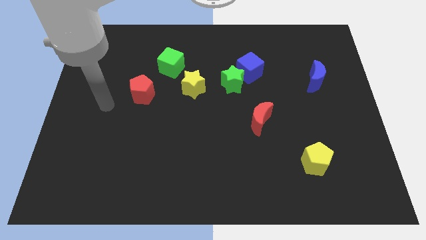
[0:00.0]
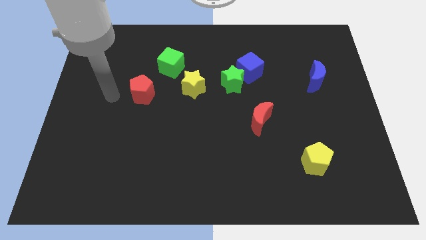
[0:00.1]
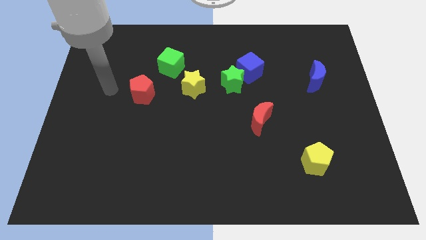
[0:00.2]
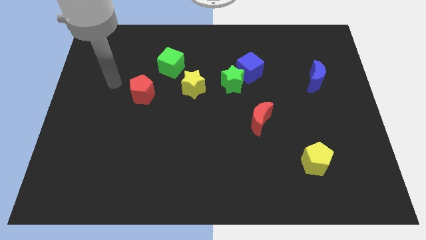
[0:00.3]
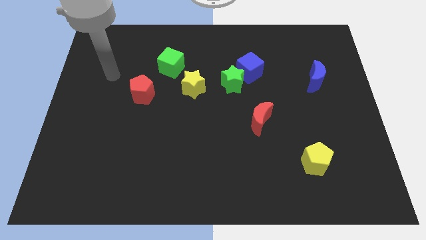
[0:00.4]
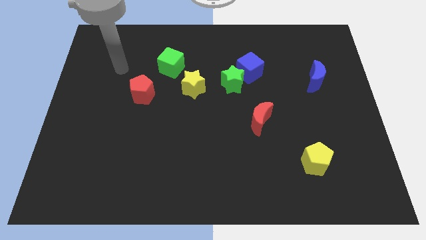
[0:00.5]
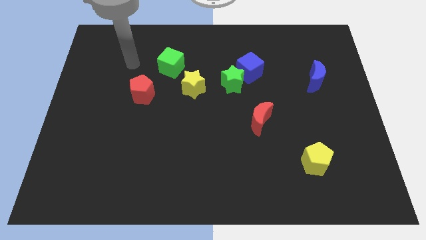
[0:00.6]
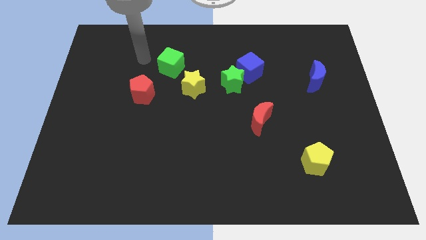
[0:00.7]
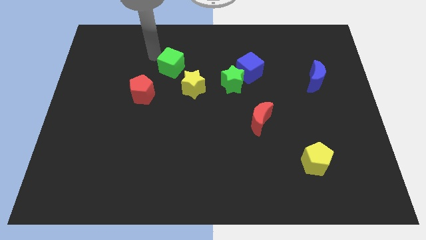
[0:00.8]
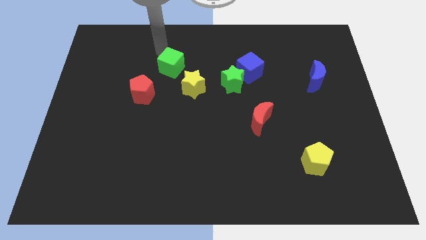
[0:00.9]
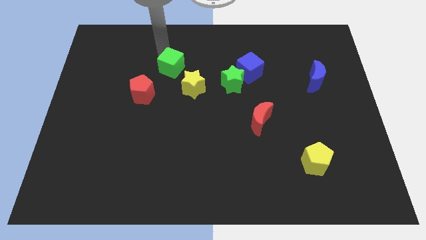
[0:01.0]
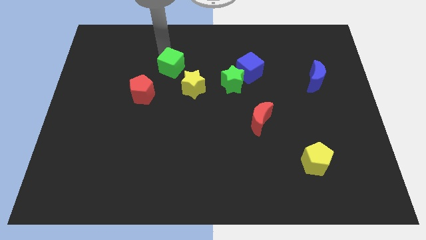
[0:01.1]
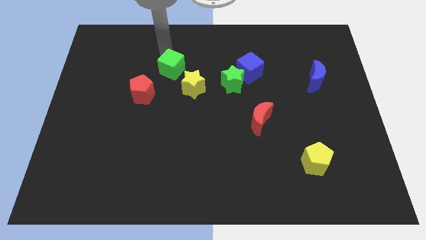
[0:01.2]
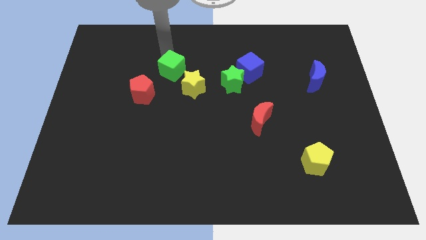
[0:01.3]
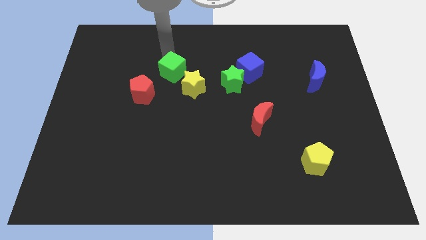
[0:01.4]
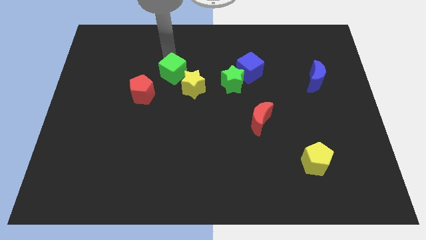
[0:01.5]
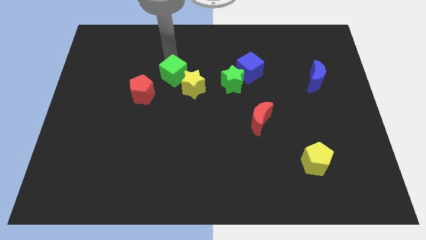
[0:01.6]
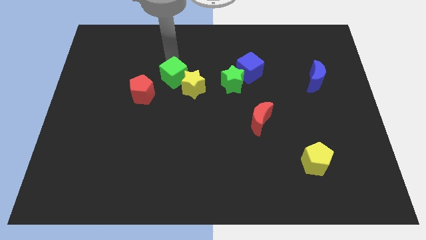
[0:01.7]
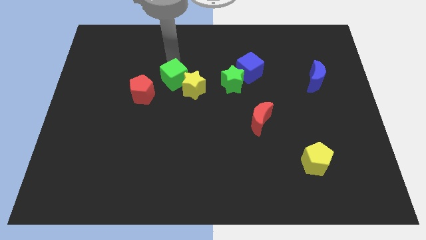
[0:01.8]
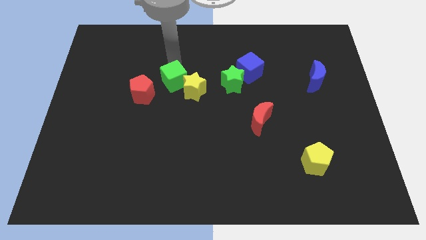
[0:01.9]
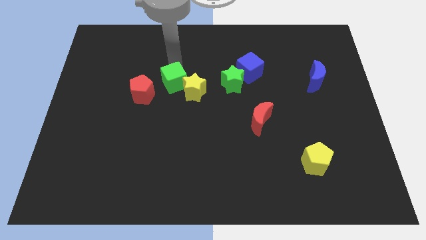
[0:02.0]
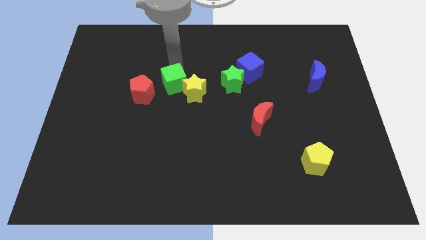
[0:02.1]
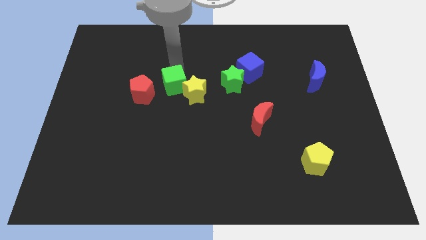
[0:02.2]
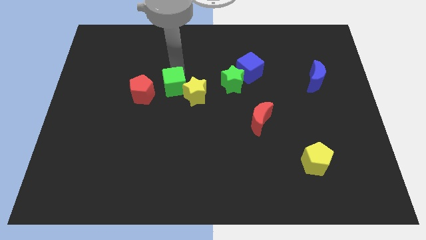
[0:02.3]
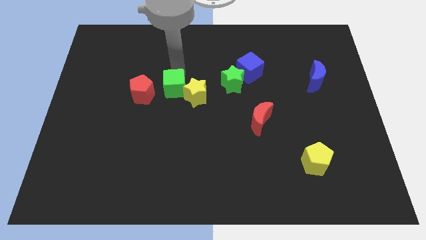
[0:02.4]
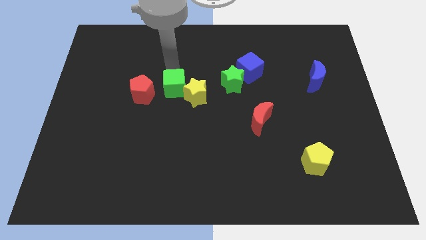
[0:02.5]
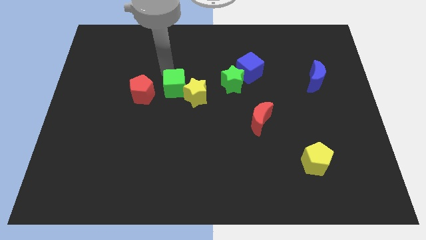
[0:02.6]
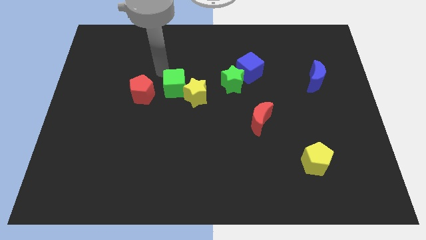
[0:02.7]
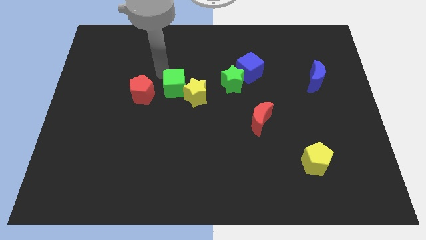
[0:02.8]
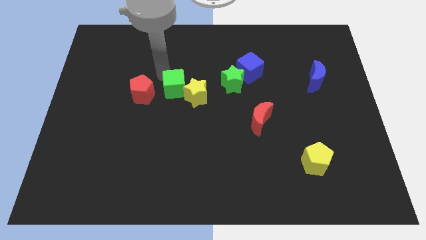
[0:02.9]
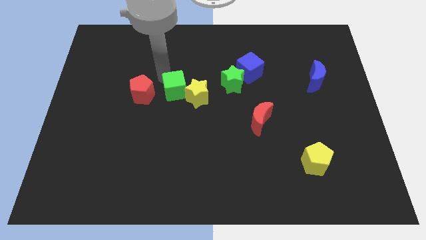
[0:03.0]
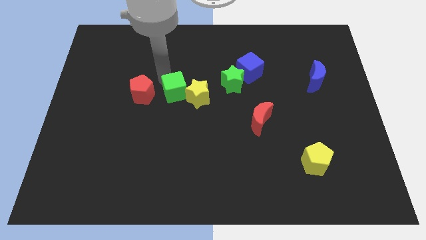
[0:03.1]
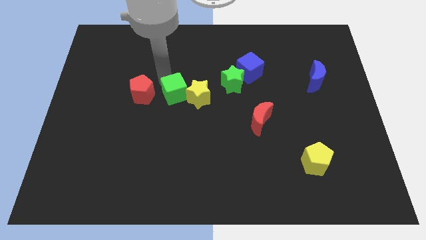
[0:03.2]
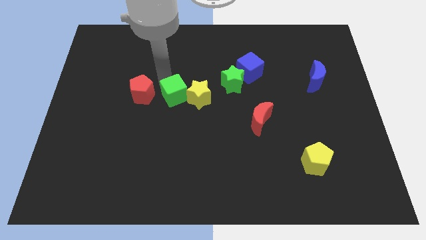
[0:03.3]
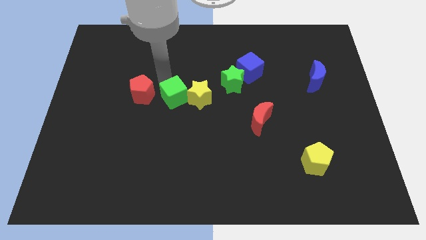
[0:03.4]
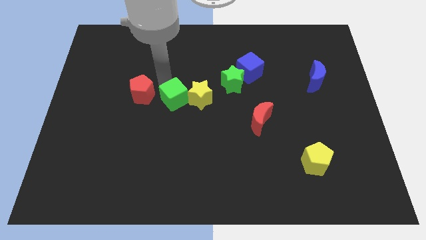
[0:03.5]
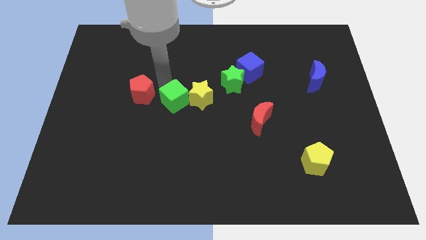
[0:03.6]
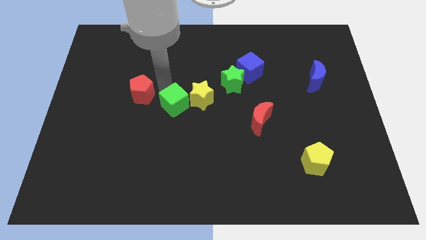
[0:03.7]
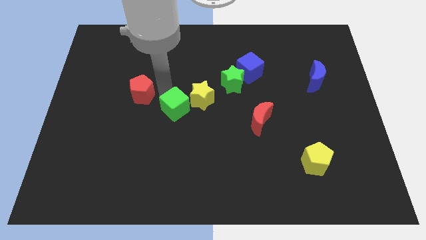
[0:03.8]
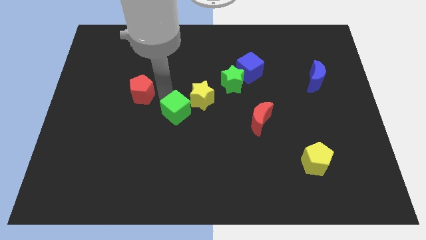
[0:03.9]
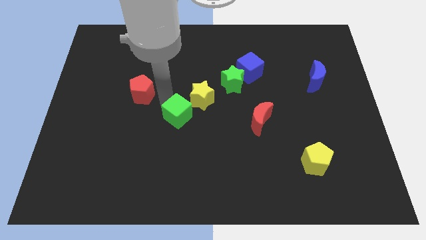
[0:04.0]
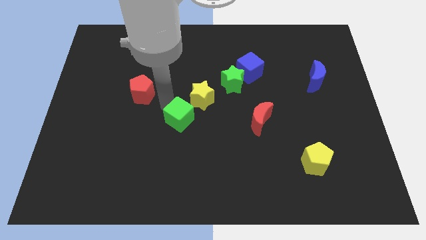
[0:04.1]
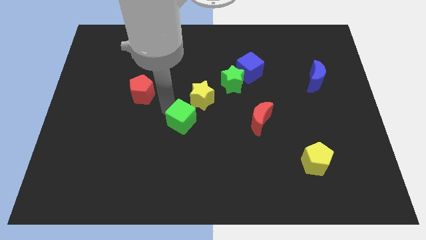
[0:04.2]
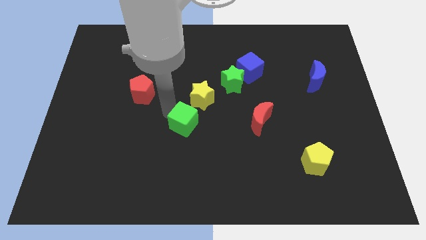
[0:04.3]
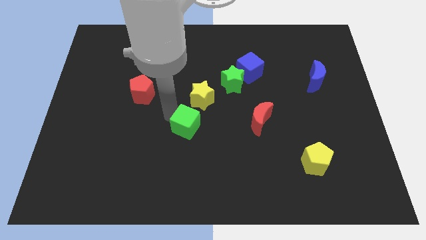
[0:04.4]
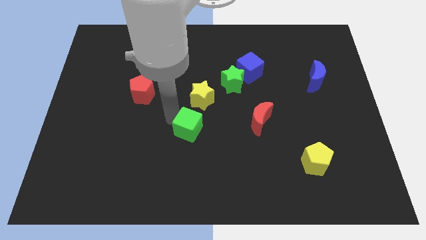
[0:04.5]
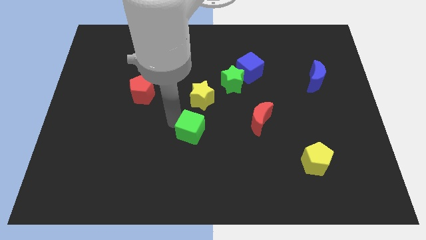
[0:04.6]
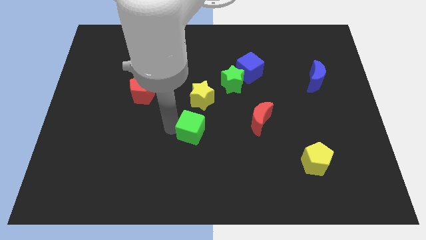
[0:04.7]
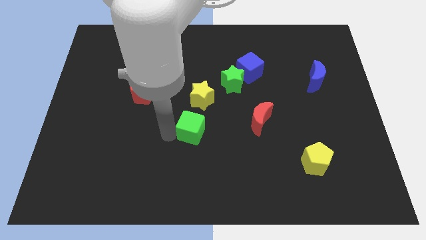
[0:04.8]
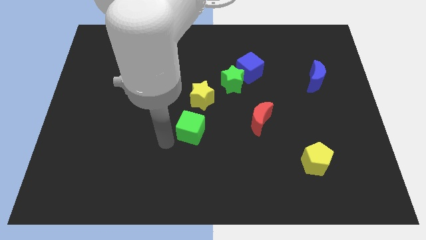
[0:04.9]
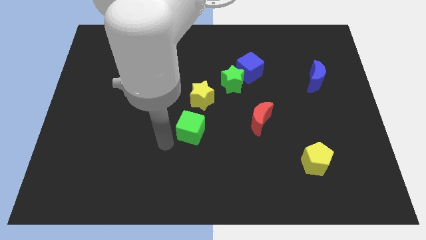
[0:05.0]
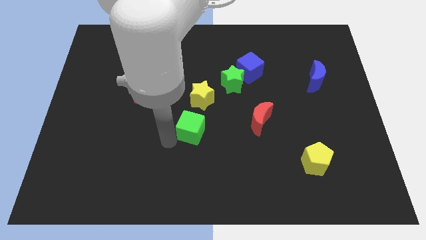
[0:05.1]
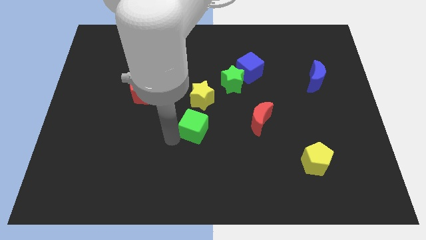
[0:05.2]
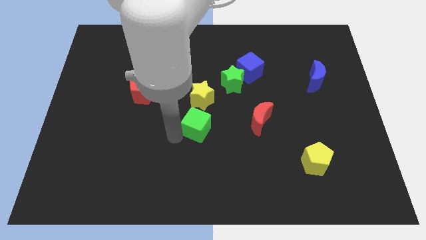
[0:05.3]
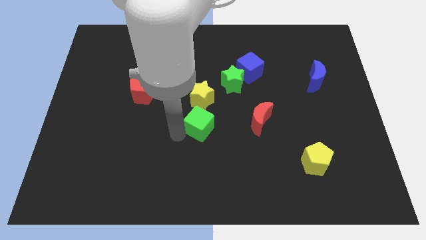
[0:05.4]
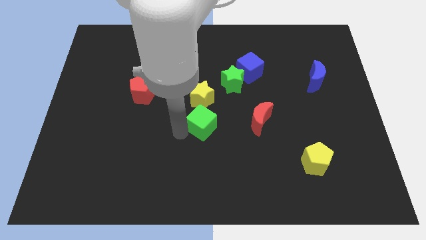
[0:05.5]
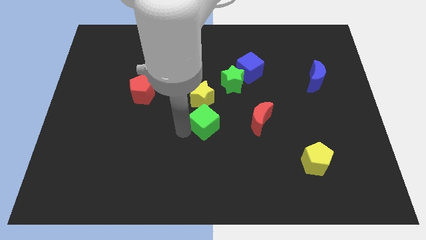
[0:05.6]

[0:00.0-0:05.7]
move the green cube to the bottom right side of the yellow star

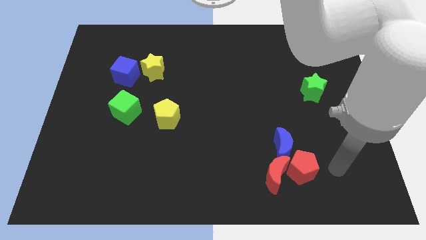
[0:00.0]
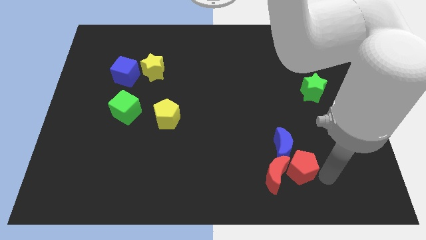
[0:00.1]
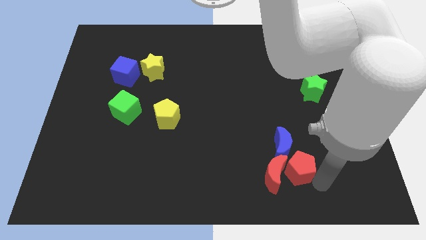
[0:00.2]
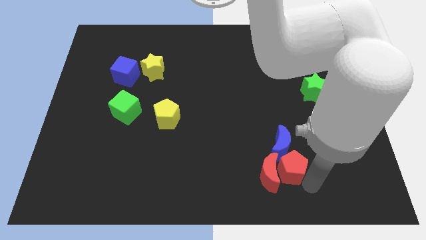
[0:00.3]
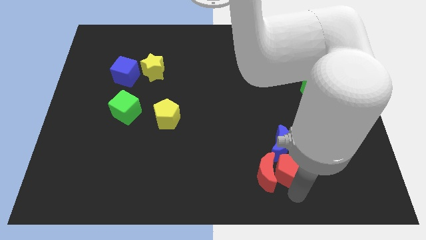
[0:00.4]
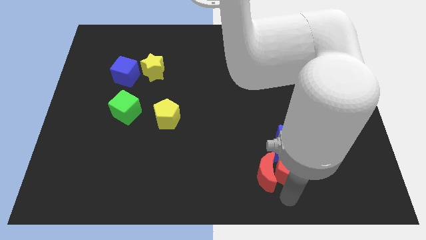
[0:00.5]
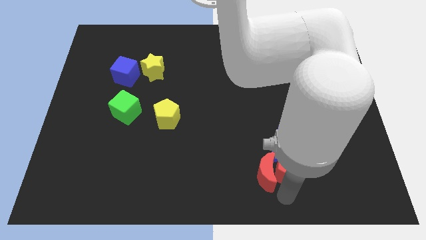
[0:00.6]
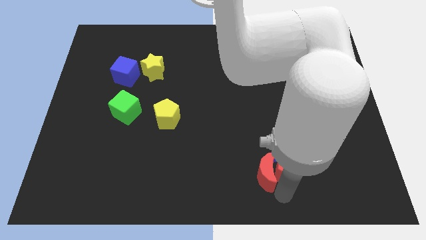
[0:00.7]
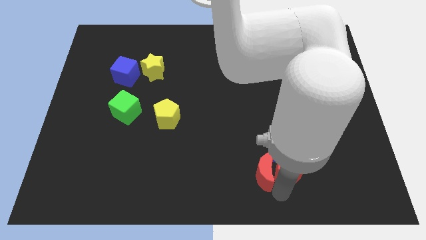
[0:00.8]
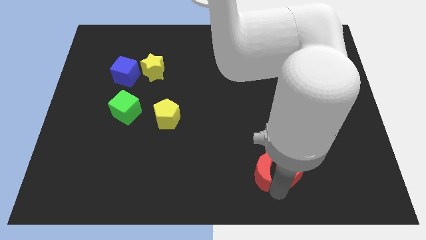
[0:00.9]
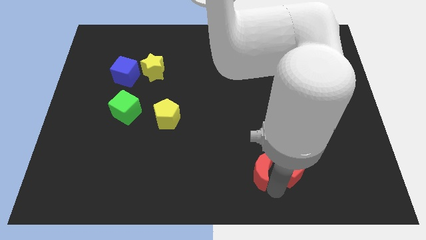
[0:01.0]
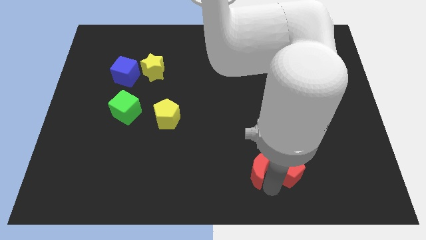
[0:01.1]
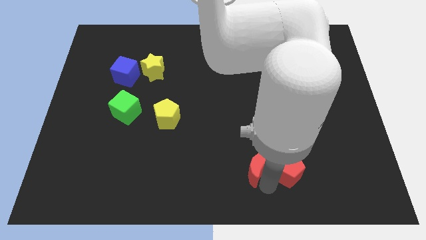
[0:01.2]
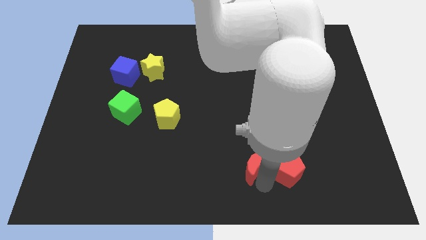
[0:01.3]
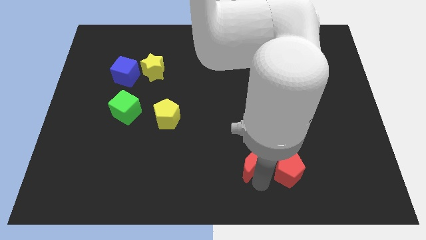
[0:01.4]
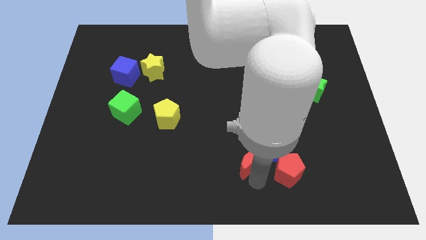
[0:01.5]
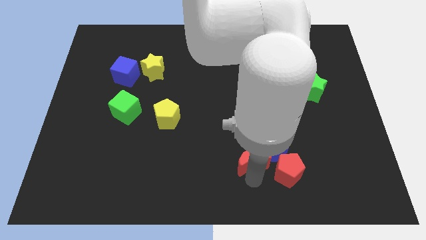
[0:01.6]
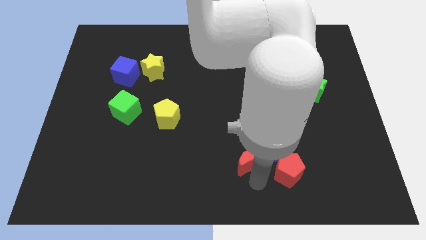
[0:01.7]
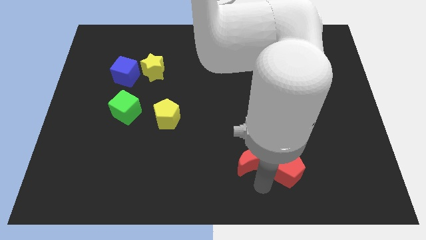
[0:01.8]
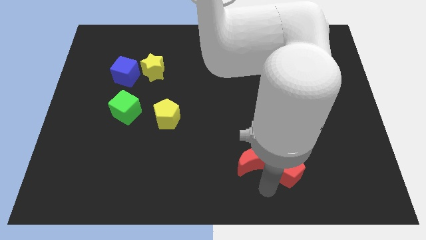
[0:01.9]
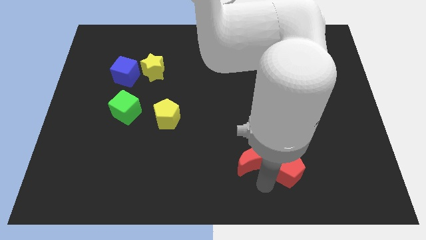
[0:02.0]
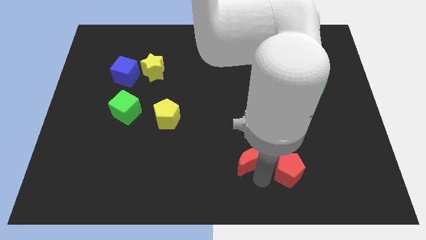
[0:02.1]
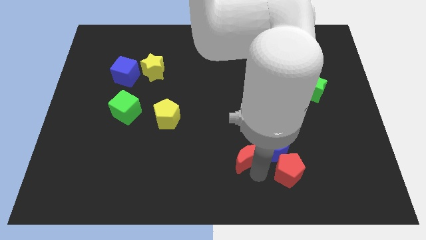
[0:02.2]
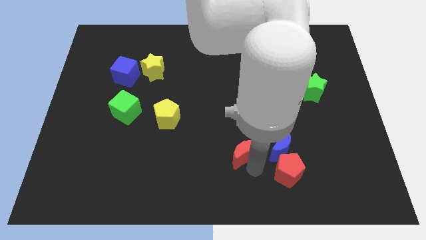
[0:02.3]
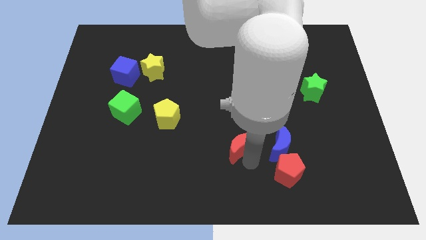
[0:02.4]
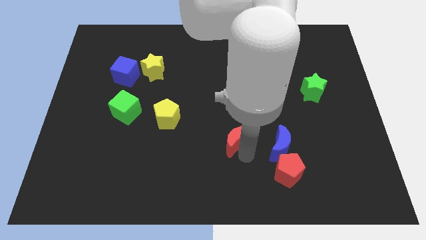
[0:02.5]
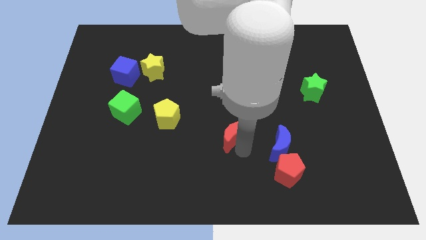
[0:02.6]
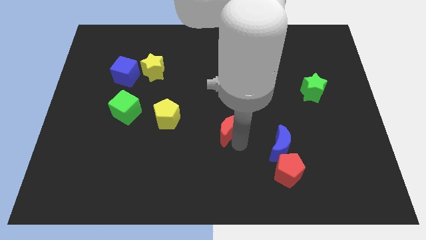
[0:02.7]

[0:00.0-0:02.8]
move the red moon right of the yellow pentagon
